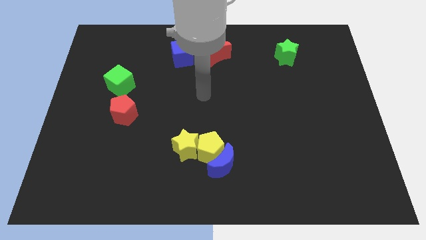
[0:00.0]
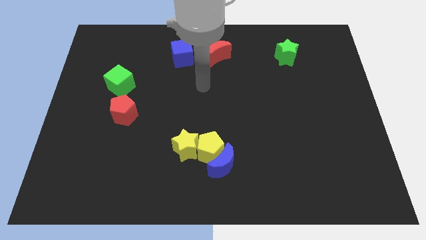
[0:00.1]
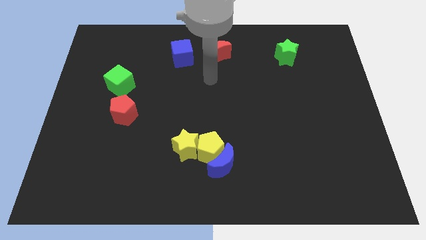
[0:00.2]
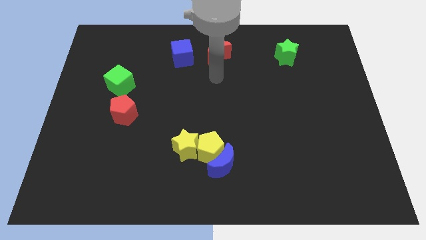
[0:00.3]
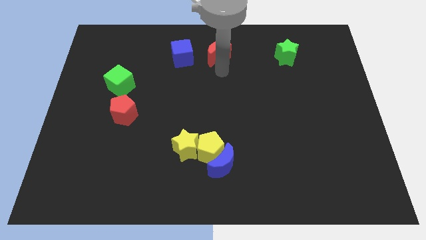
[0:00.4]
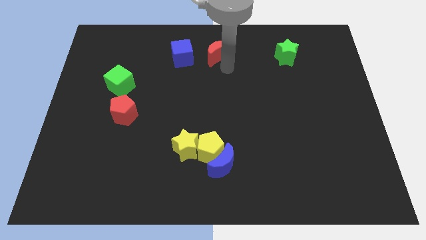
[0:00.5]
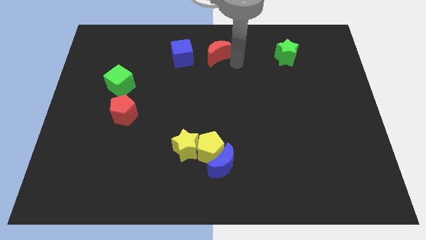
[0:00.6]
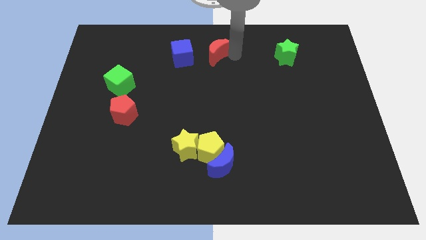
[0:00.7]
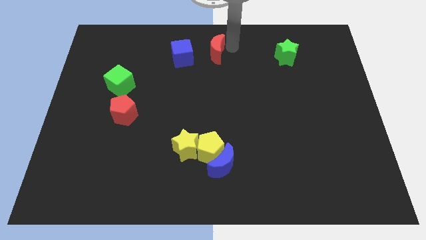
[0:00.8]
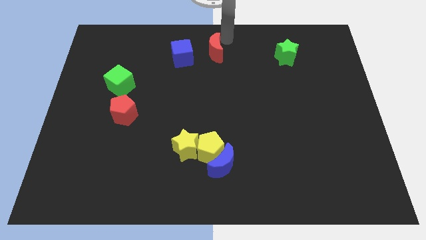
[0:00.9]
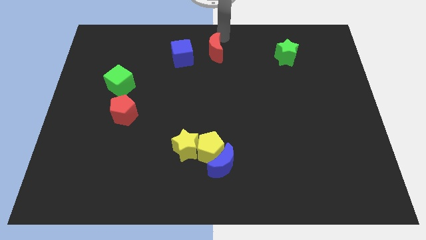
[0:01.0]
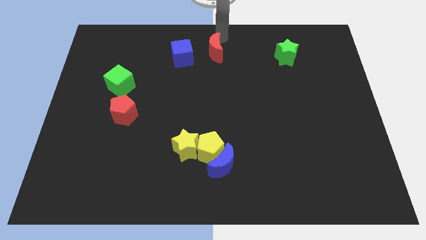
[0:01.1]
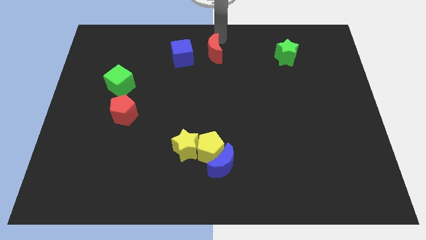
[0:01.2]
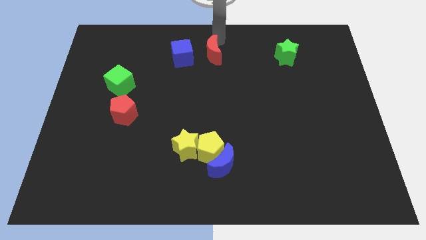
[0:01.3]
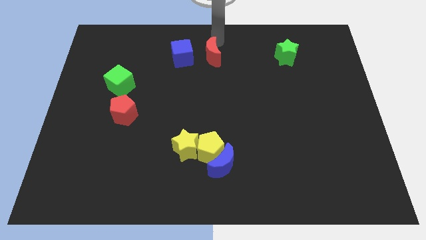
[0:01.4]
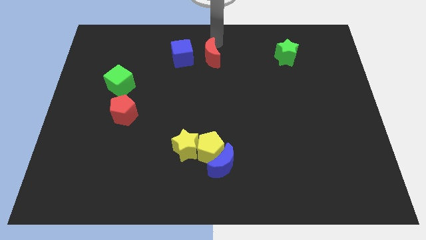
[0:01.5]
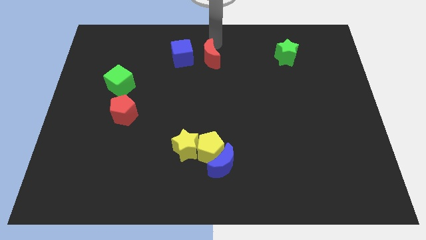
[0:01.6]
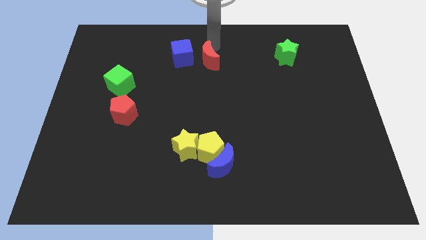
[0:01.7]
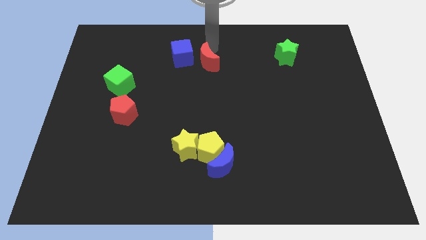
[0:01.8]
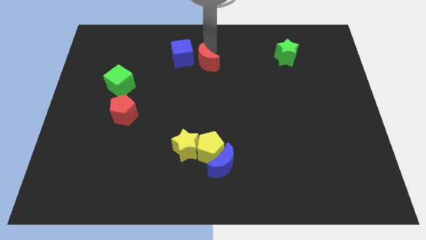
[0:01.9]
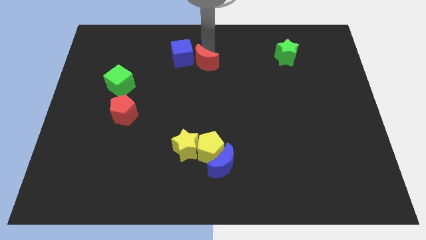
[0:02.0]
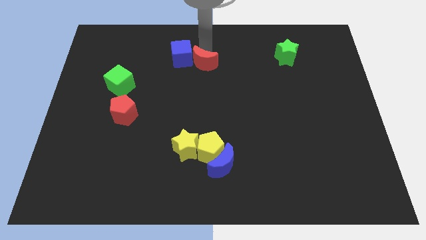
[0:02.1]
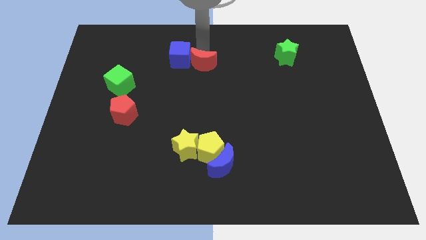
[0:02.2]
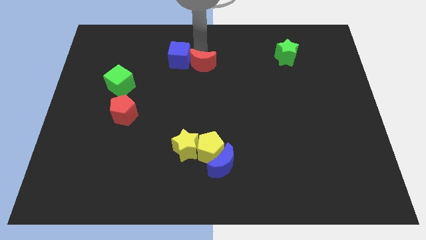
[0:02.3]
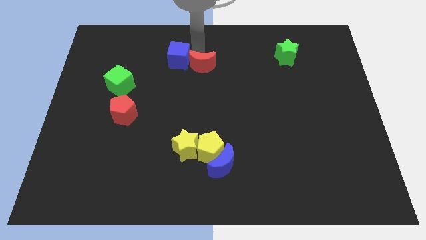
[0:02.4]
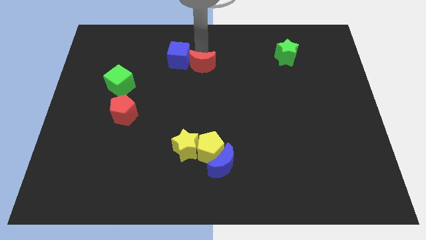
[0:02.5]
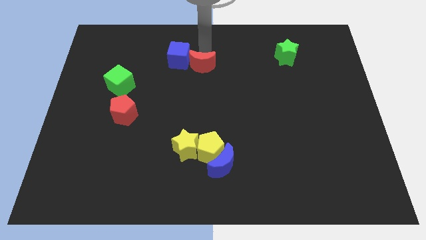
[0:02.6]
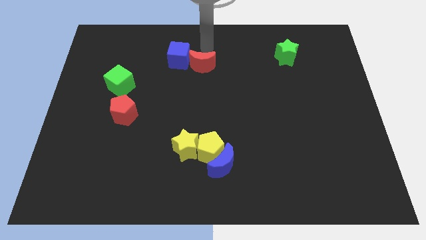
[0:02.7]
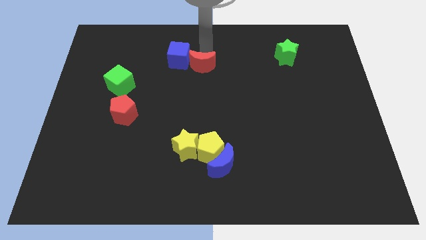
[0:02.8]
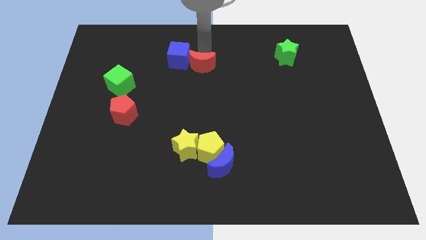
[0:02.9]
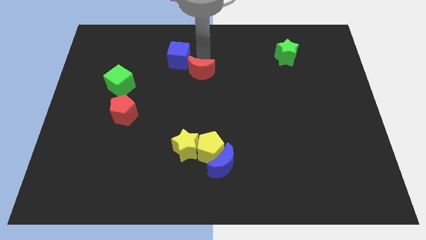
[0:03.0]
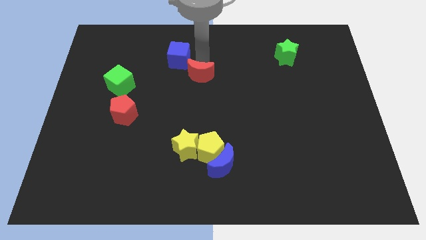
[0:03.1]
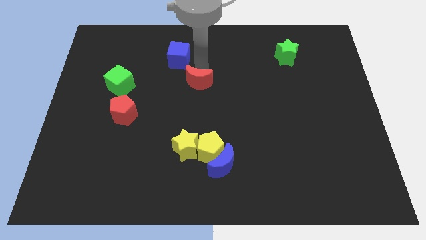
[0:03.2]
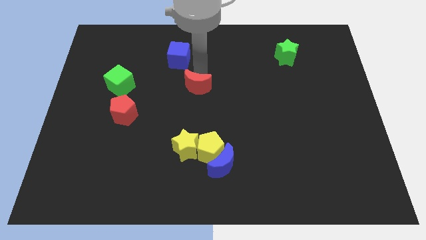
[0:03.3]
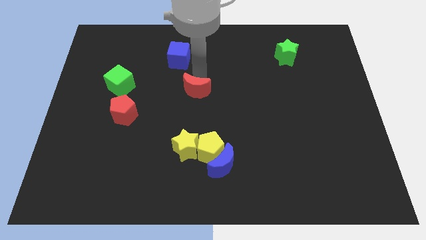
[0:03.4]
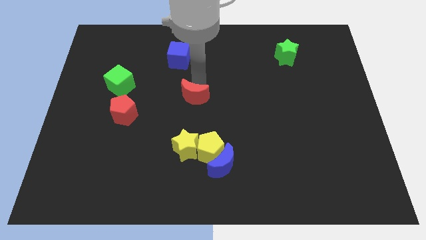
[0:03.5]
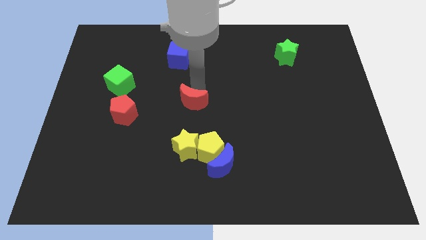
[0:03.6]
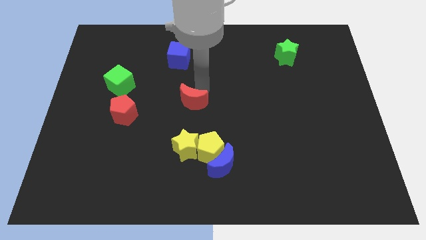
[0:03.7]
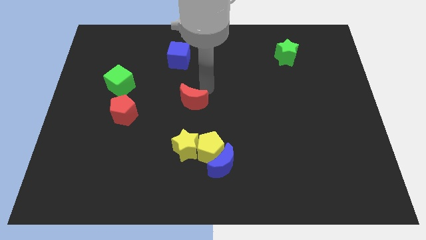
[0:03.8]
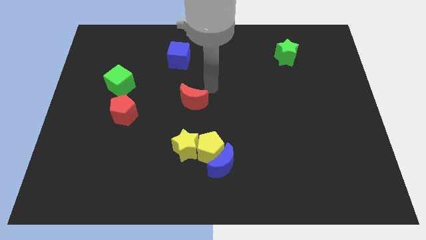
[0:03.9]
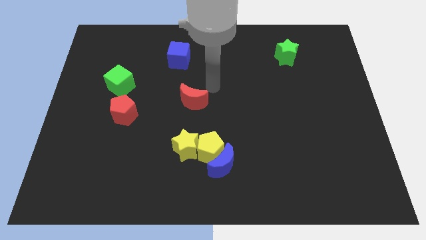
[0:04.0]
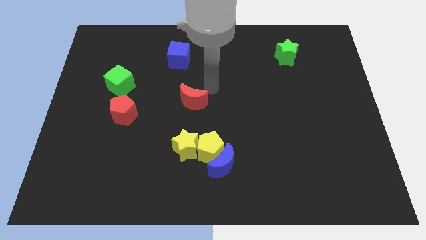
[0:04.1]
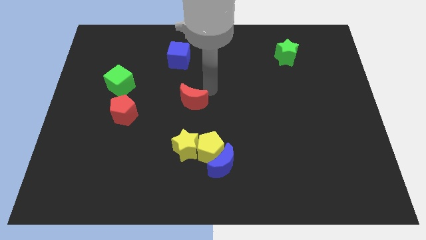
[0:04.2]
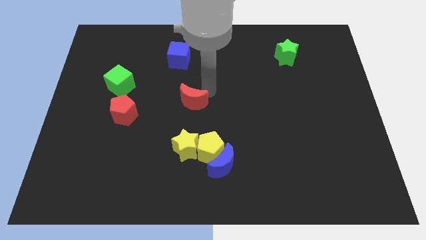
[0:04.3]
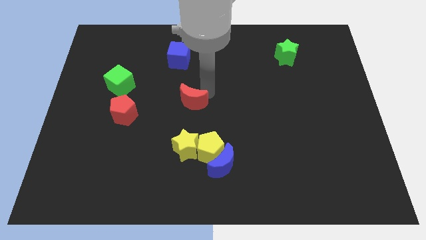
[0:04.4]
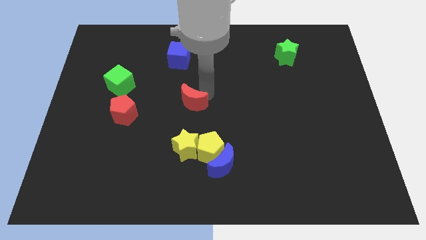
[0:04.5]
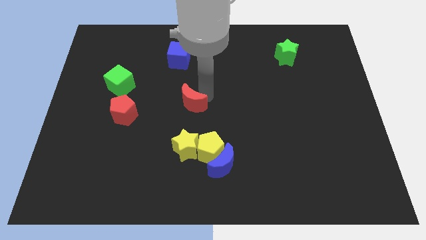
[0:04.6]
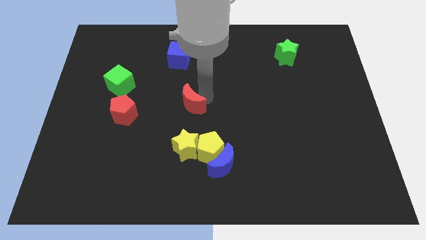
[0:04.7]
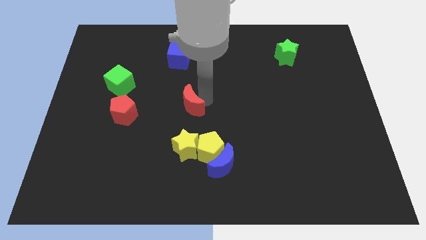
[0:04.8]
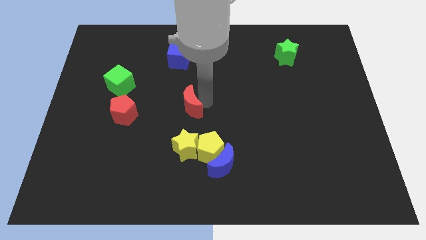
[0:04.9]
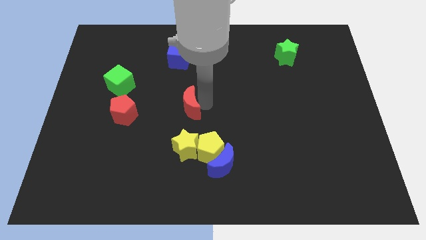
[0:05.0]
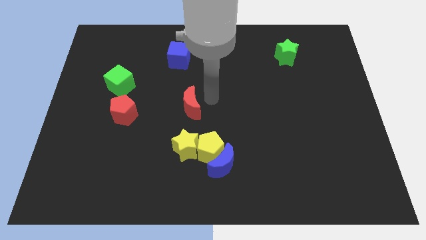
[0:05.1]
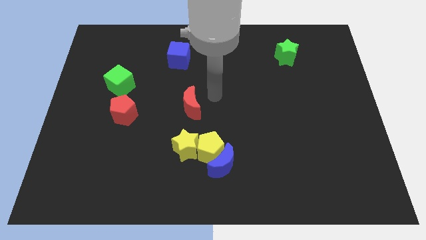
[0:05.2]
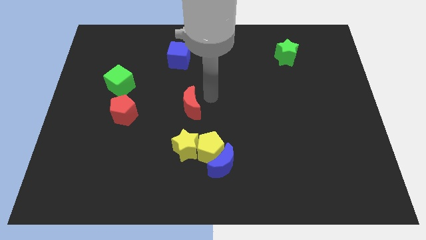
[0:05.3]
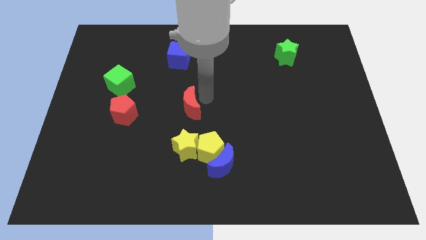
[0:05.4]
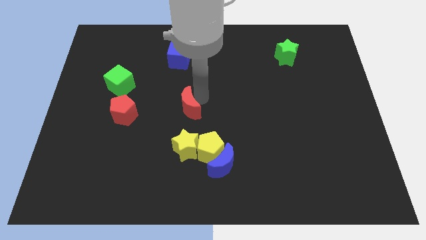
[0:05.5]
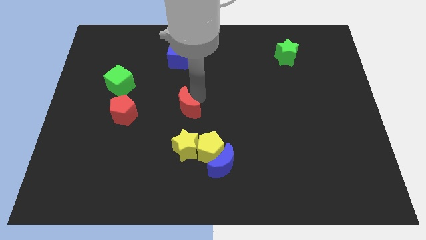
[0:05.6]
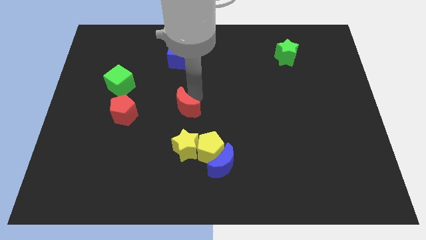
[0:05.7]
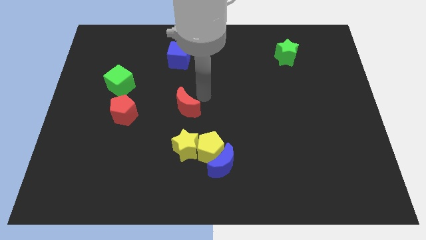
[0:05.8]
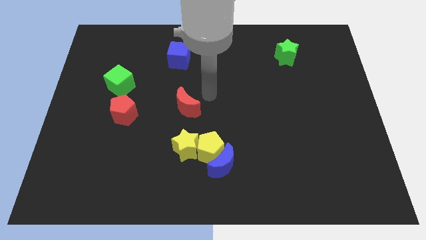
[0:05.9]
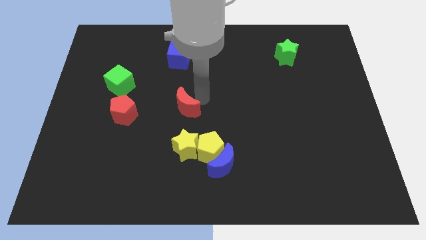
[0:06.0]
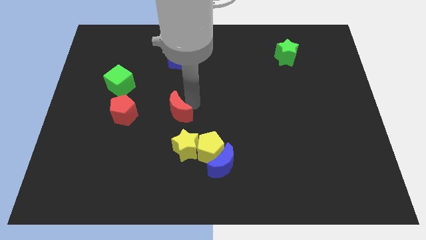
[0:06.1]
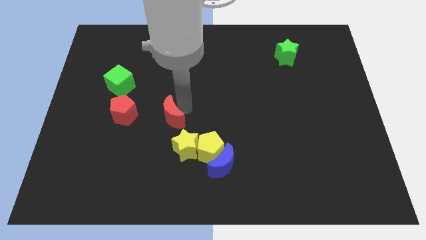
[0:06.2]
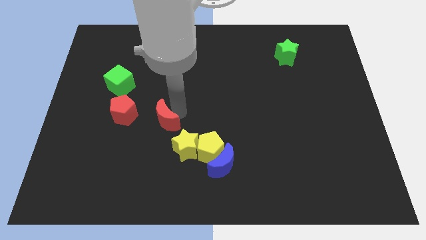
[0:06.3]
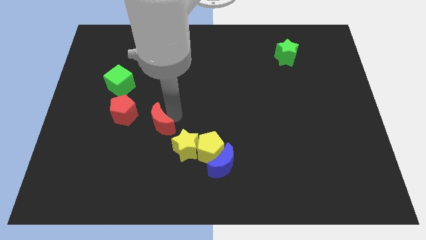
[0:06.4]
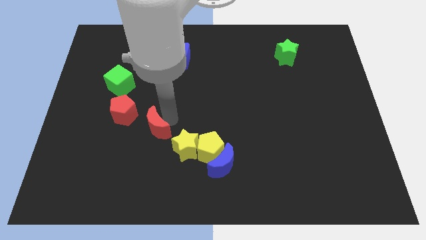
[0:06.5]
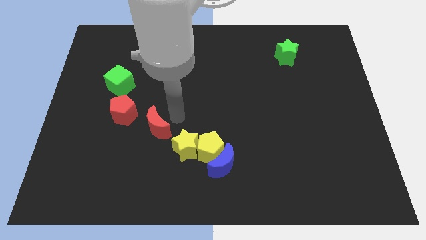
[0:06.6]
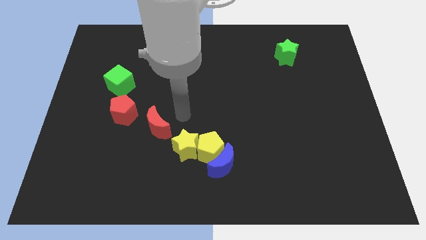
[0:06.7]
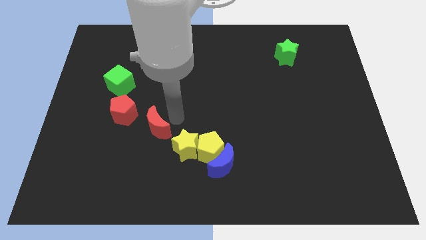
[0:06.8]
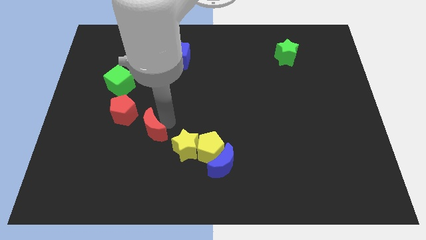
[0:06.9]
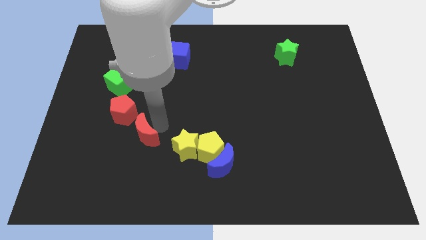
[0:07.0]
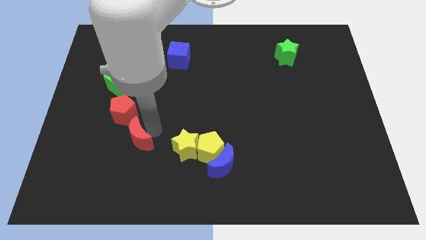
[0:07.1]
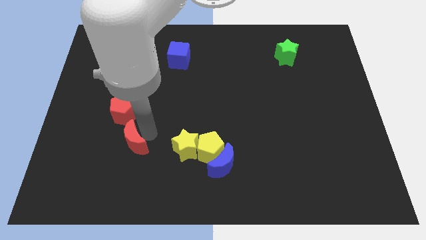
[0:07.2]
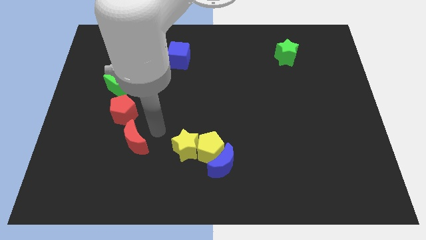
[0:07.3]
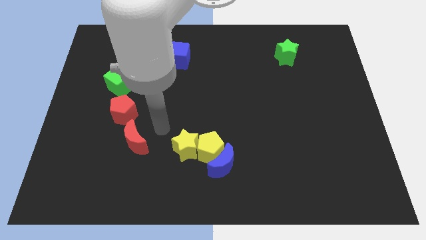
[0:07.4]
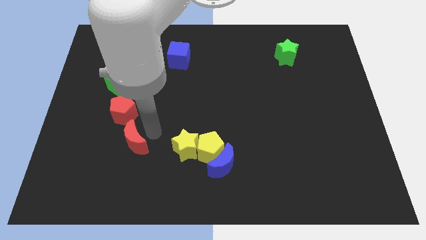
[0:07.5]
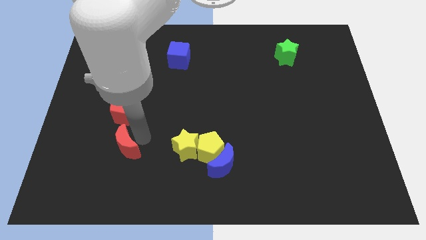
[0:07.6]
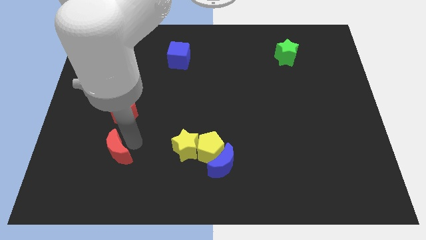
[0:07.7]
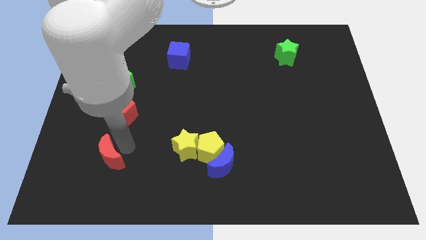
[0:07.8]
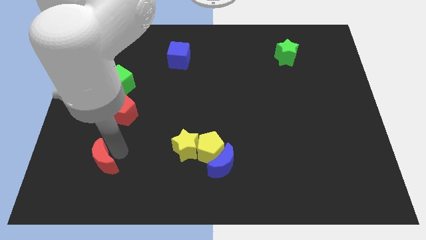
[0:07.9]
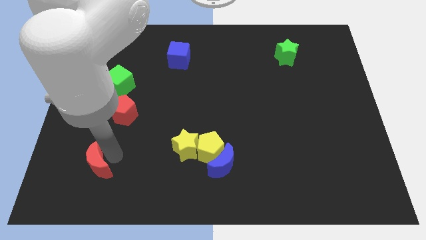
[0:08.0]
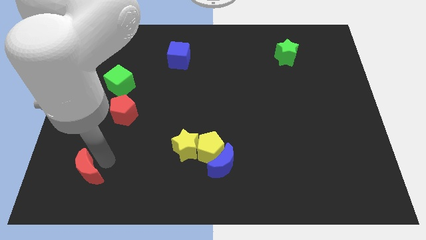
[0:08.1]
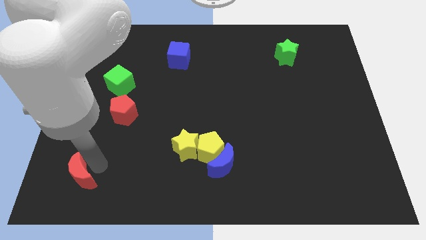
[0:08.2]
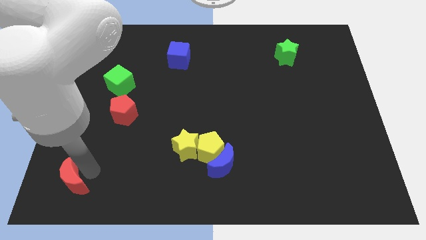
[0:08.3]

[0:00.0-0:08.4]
push the red moon to the bottom left
